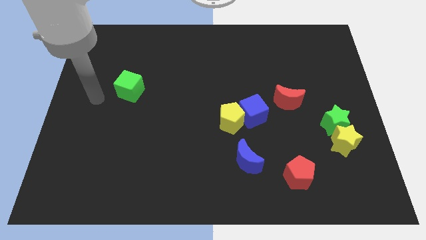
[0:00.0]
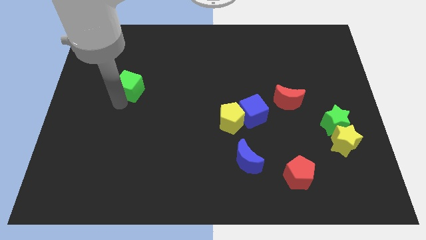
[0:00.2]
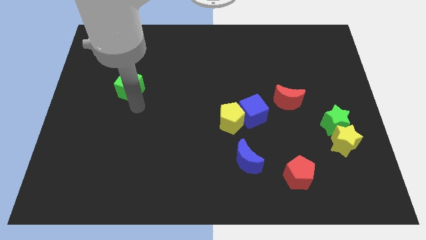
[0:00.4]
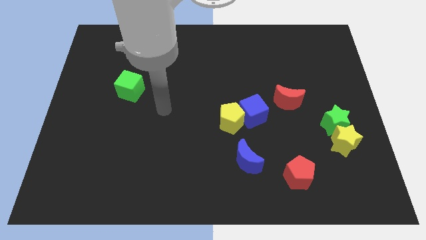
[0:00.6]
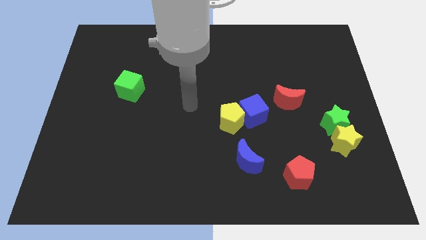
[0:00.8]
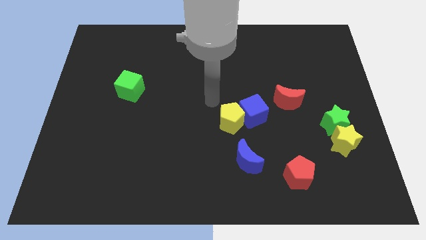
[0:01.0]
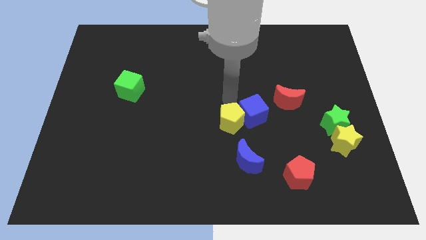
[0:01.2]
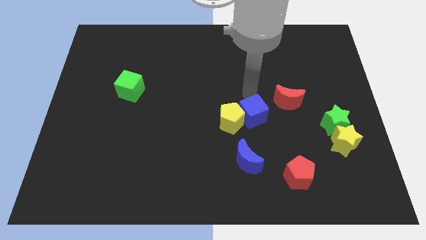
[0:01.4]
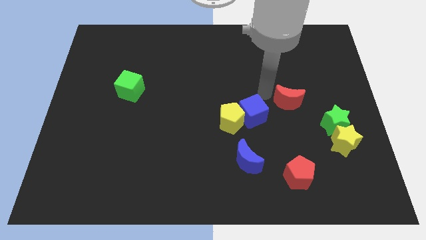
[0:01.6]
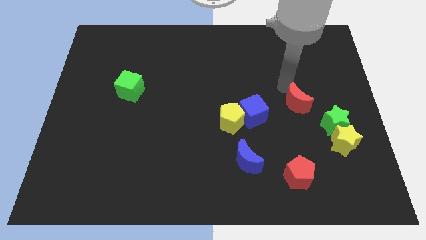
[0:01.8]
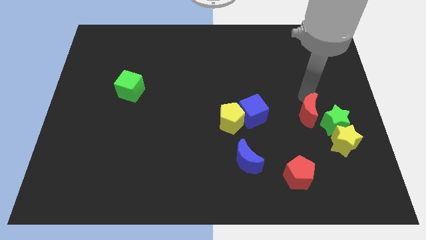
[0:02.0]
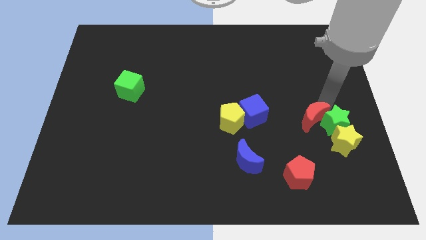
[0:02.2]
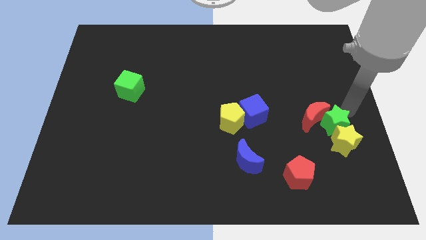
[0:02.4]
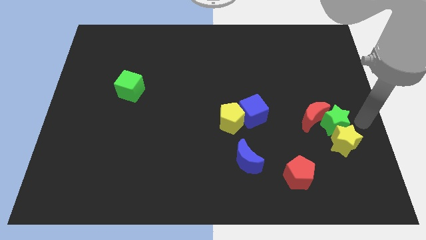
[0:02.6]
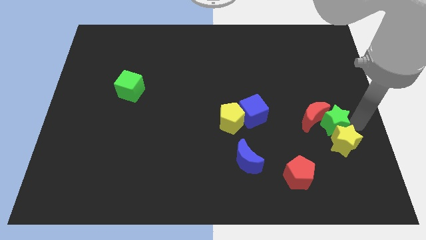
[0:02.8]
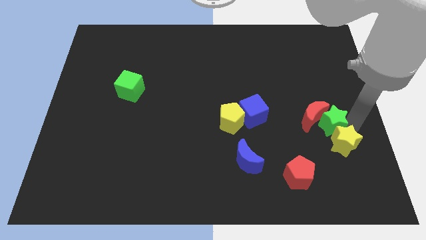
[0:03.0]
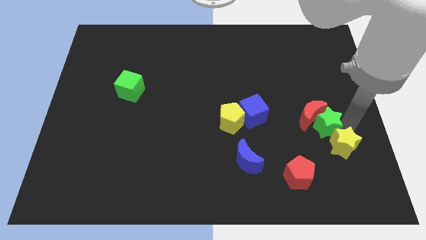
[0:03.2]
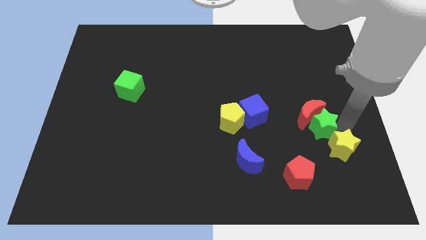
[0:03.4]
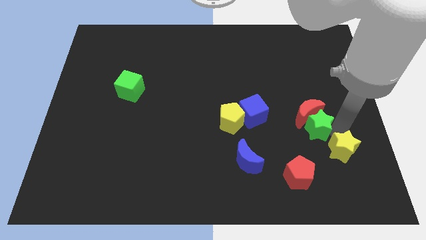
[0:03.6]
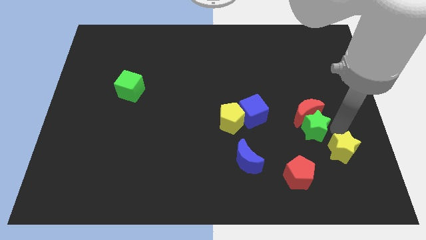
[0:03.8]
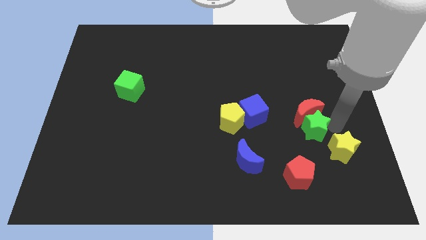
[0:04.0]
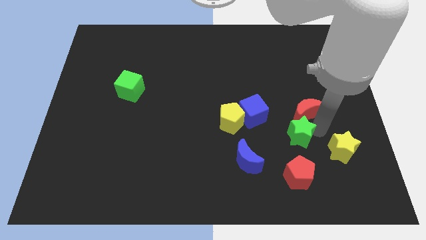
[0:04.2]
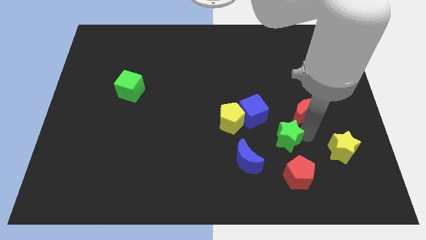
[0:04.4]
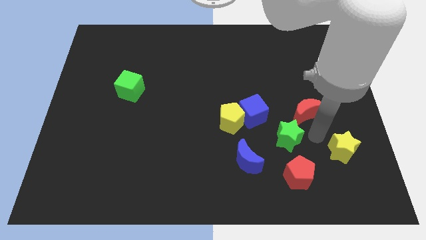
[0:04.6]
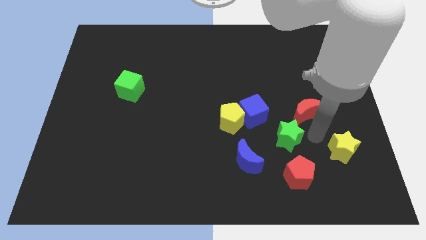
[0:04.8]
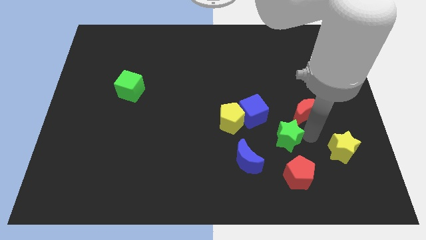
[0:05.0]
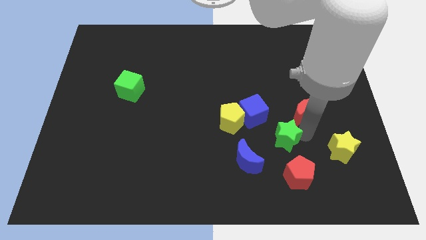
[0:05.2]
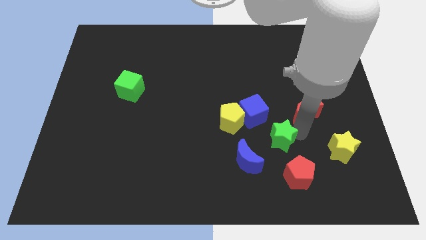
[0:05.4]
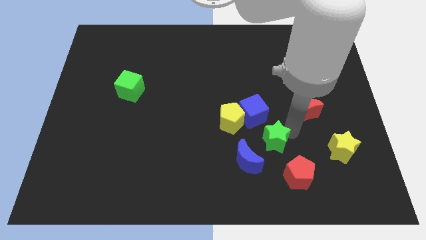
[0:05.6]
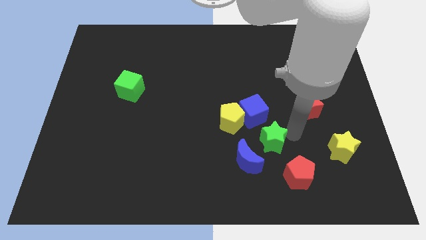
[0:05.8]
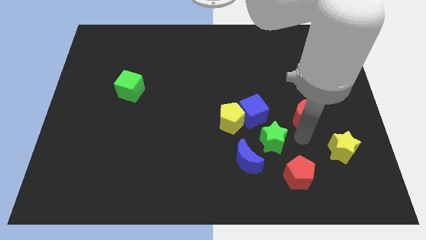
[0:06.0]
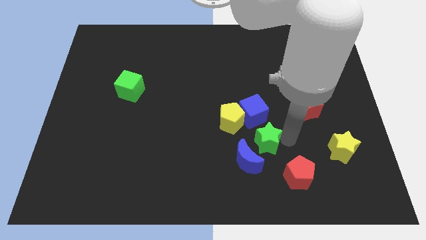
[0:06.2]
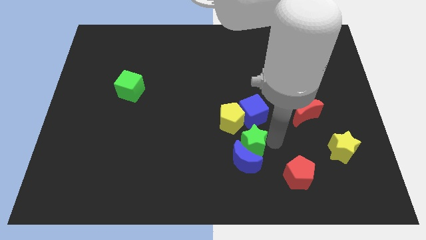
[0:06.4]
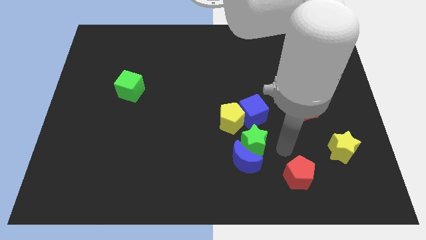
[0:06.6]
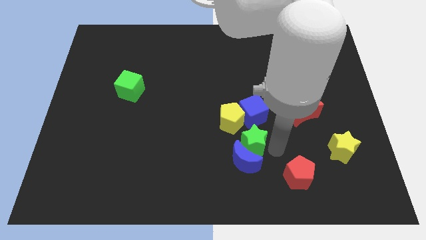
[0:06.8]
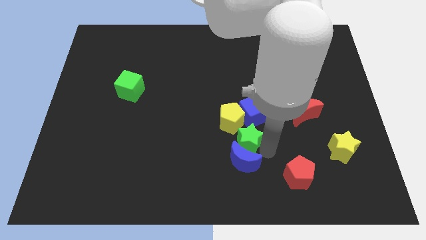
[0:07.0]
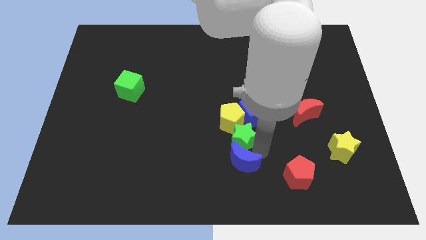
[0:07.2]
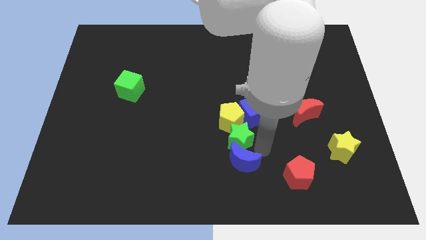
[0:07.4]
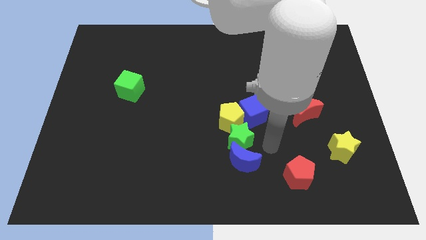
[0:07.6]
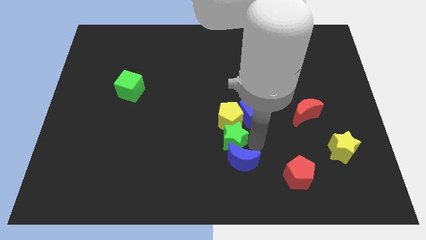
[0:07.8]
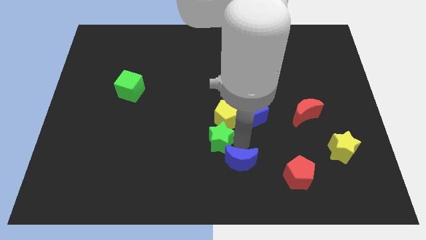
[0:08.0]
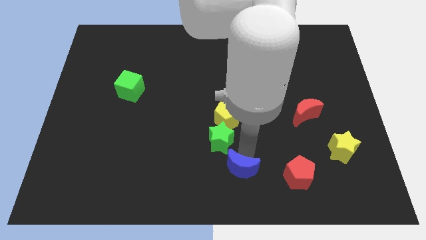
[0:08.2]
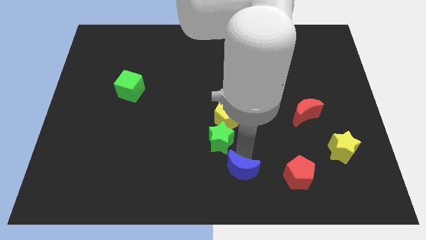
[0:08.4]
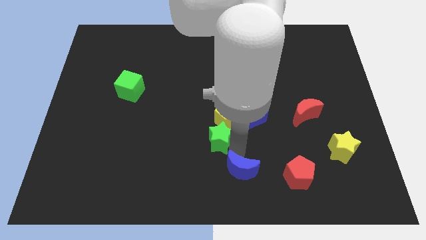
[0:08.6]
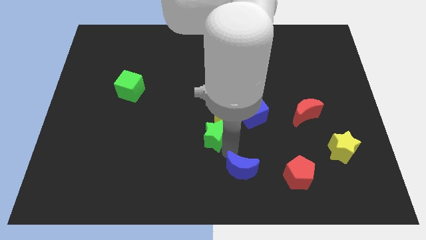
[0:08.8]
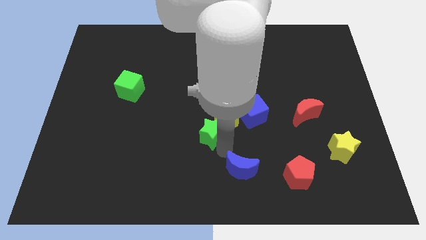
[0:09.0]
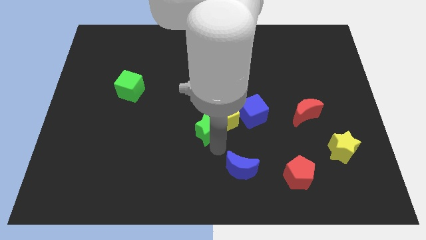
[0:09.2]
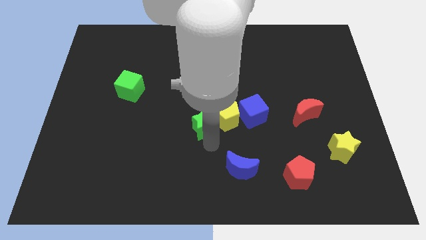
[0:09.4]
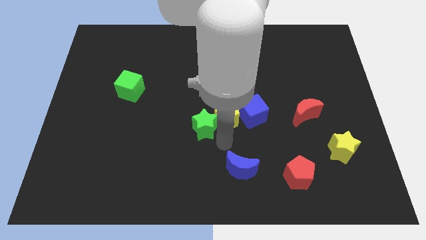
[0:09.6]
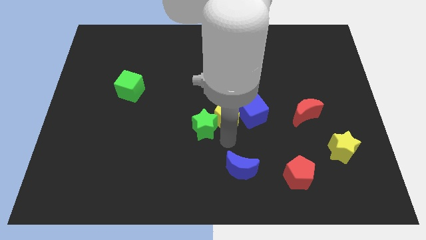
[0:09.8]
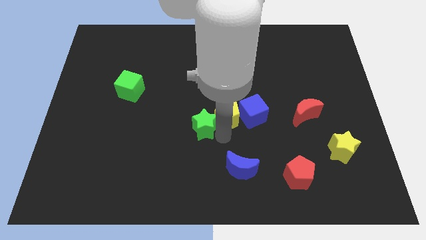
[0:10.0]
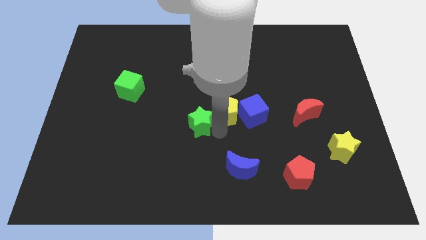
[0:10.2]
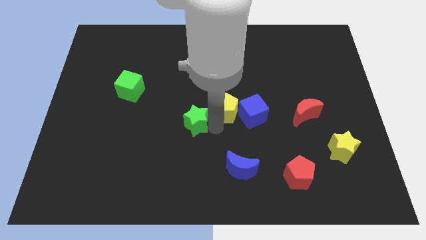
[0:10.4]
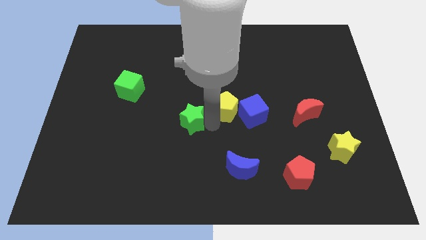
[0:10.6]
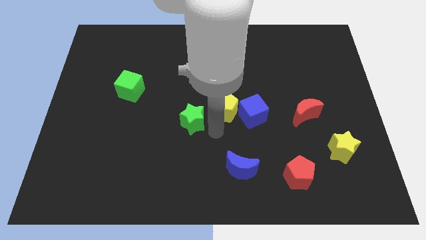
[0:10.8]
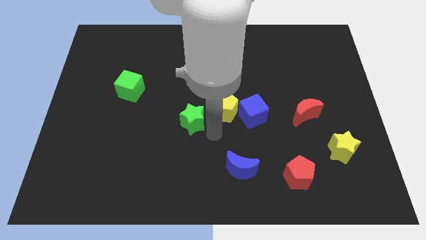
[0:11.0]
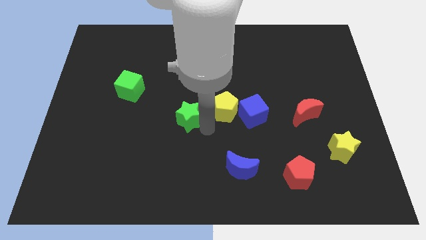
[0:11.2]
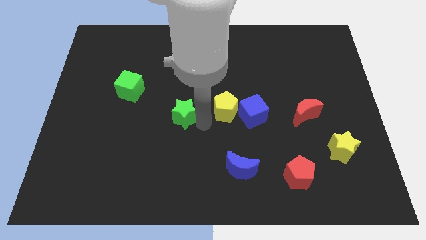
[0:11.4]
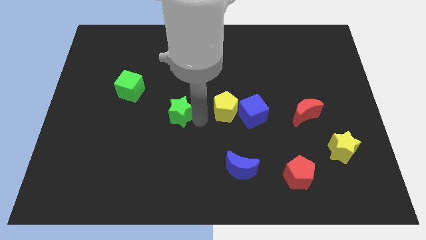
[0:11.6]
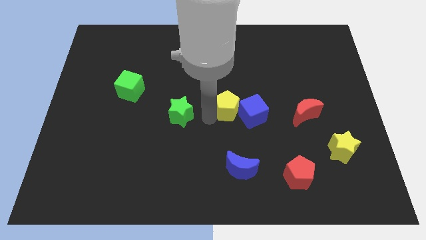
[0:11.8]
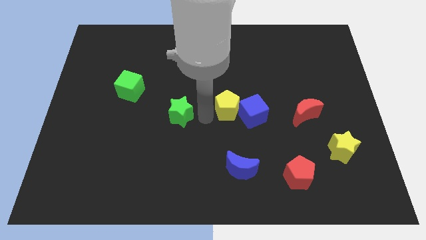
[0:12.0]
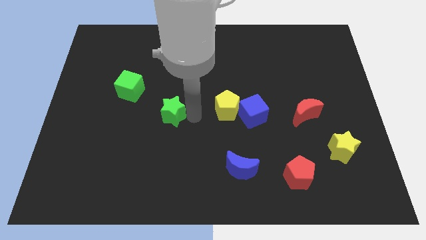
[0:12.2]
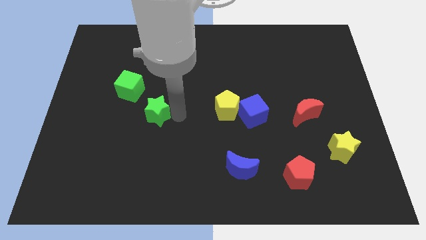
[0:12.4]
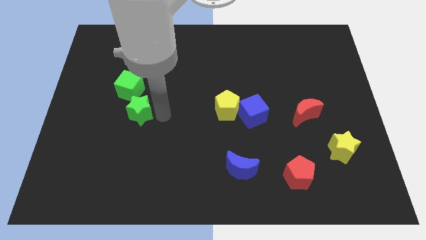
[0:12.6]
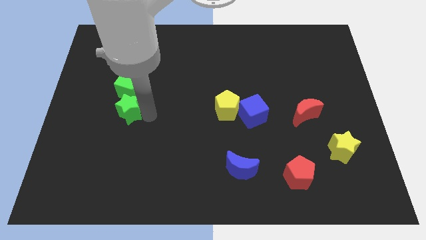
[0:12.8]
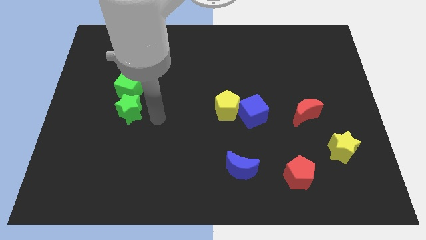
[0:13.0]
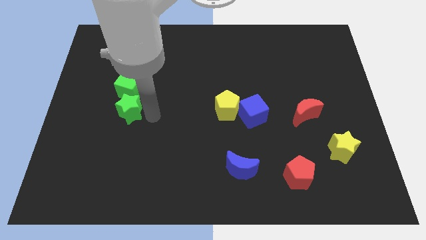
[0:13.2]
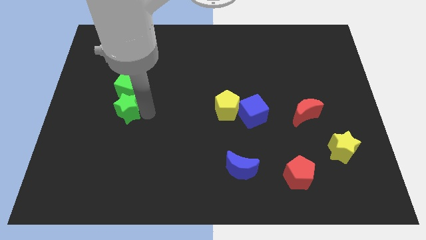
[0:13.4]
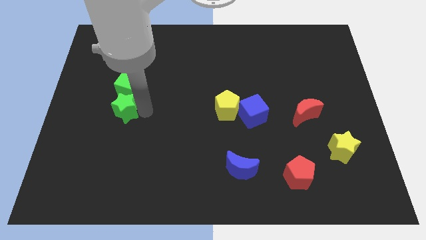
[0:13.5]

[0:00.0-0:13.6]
slide the green star to the bottom left side of the green cube
